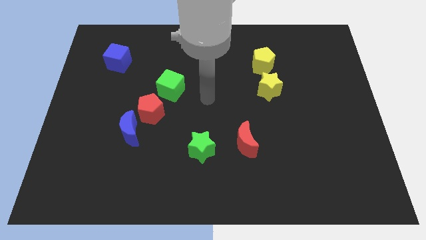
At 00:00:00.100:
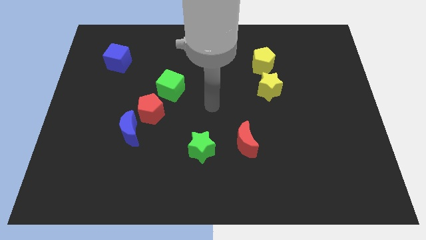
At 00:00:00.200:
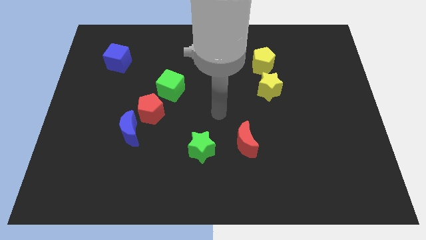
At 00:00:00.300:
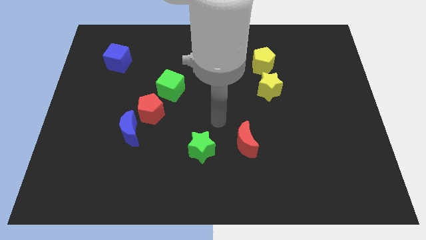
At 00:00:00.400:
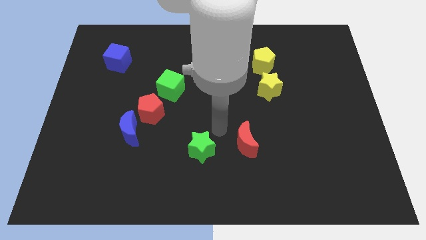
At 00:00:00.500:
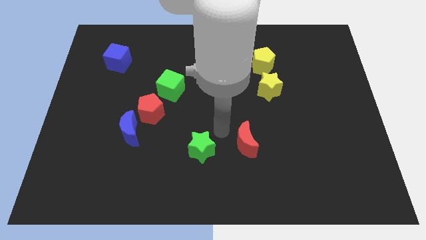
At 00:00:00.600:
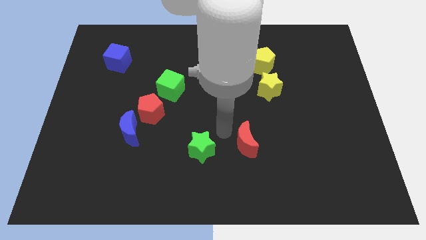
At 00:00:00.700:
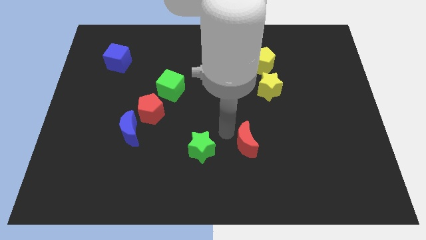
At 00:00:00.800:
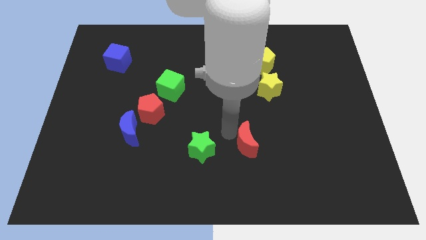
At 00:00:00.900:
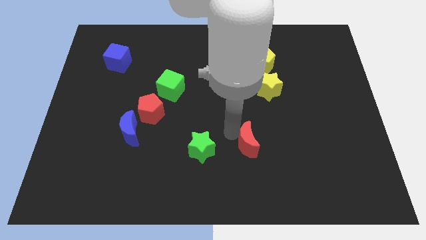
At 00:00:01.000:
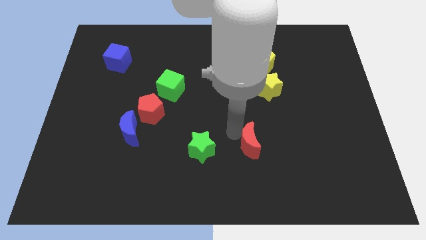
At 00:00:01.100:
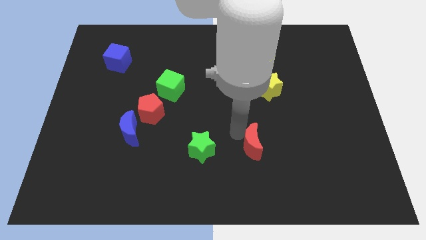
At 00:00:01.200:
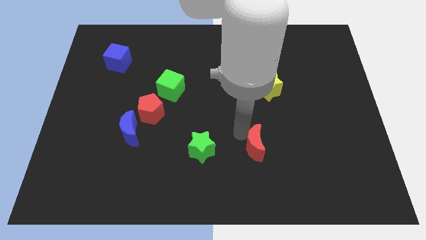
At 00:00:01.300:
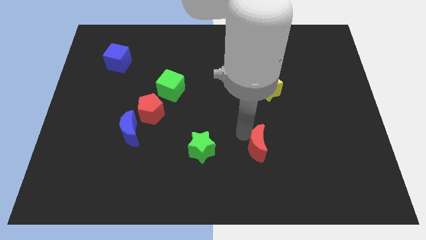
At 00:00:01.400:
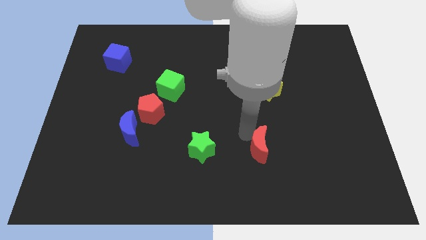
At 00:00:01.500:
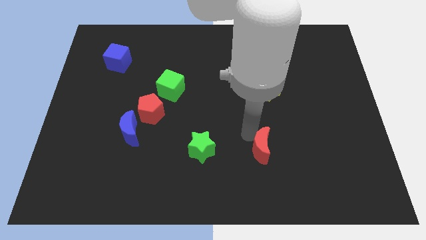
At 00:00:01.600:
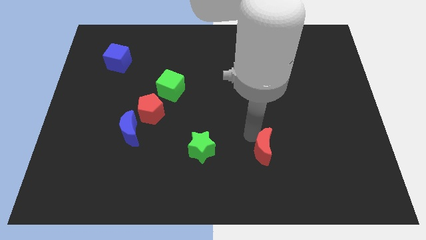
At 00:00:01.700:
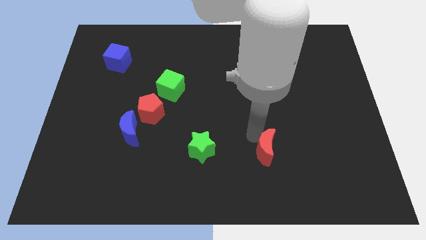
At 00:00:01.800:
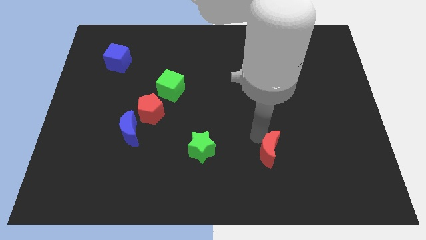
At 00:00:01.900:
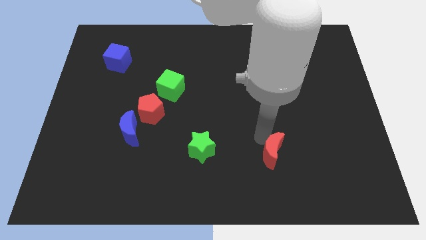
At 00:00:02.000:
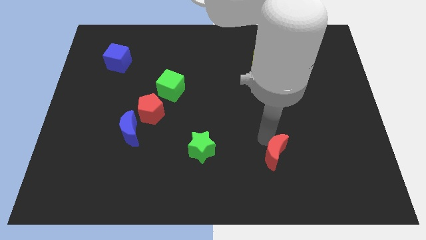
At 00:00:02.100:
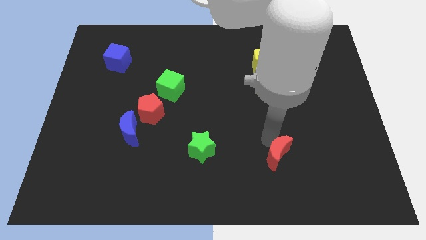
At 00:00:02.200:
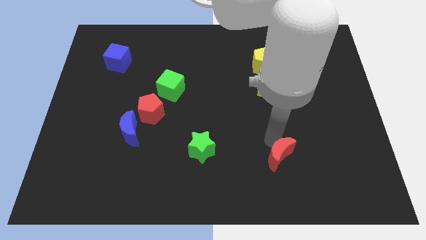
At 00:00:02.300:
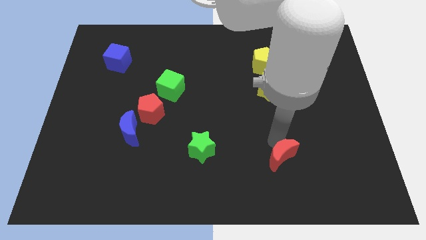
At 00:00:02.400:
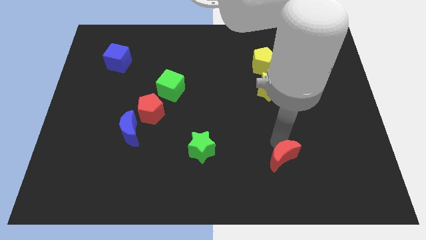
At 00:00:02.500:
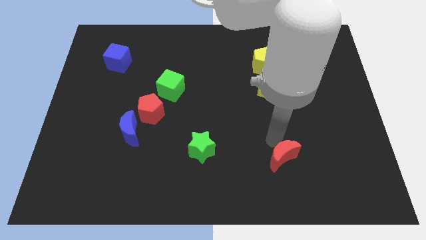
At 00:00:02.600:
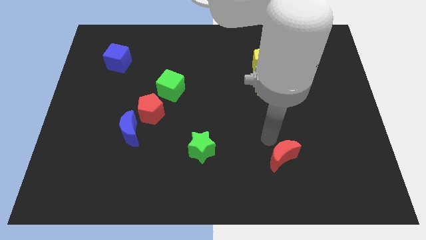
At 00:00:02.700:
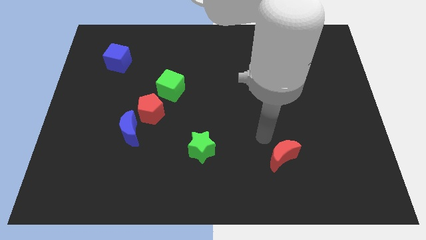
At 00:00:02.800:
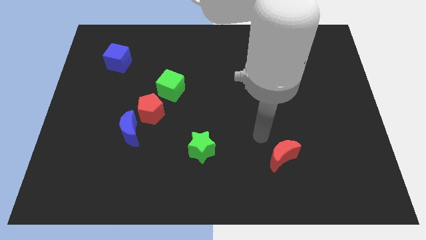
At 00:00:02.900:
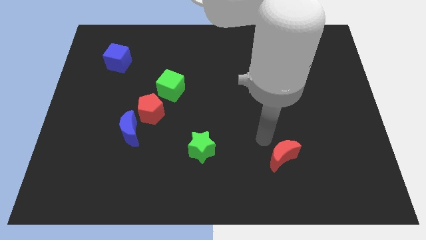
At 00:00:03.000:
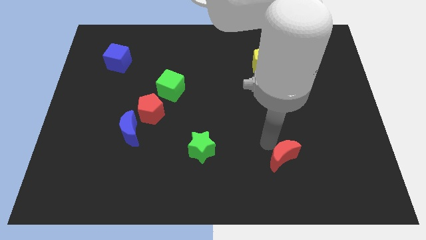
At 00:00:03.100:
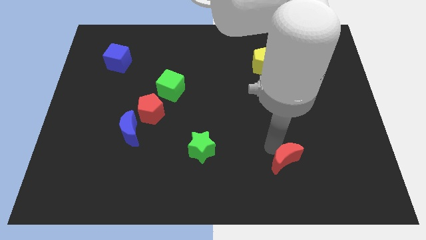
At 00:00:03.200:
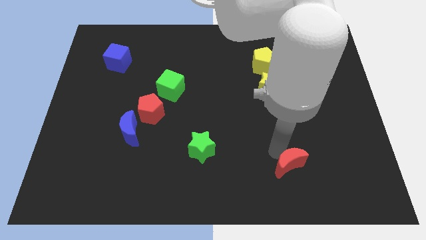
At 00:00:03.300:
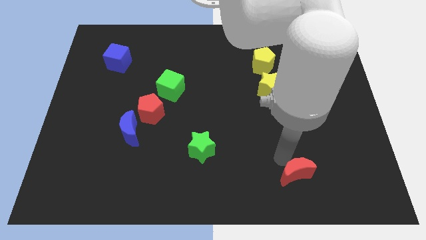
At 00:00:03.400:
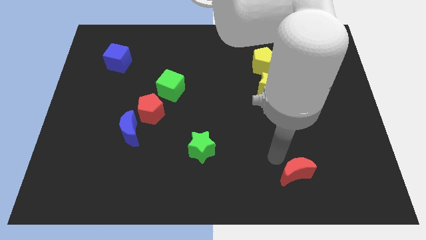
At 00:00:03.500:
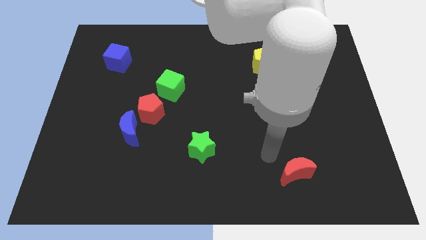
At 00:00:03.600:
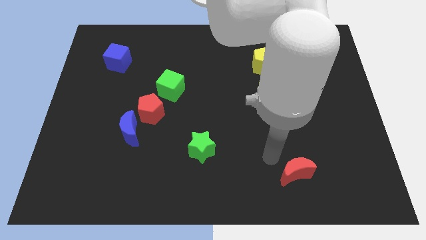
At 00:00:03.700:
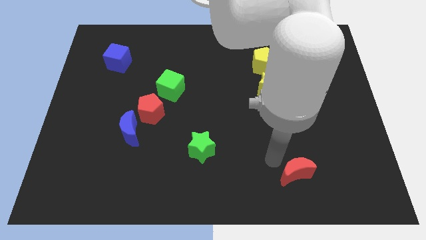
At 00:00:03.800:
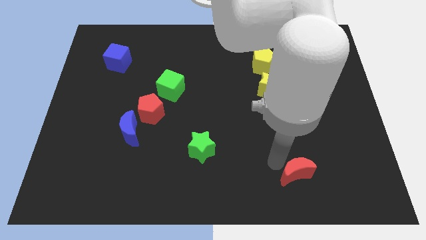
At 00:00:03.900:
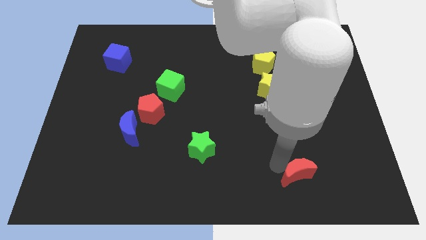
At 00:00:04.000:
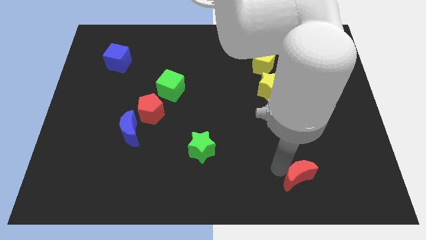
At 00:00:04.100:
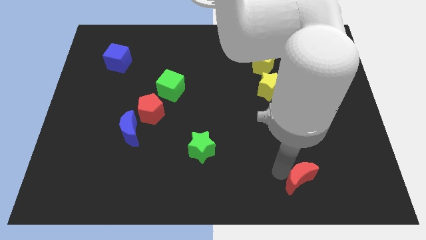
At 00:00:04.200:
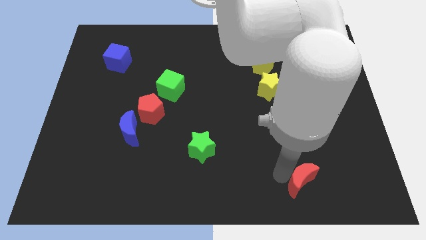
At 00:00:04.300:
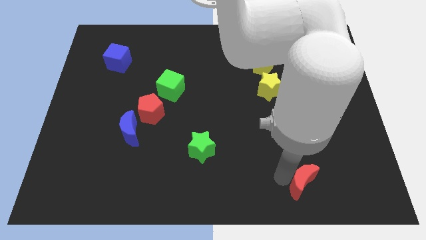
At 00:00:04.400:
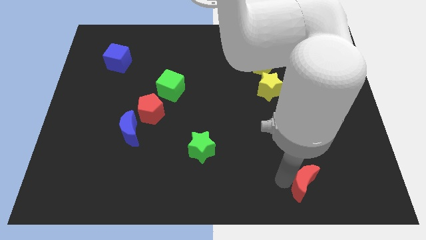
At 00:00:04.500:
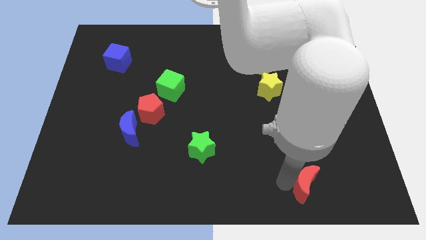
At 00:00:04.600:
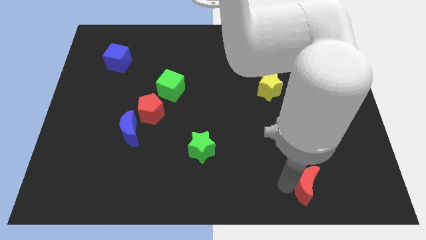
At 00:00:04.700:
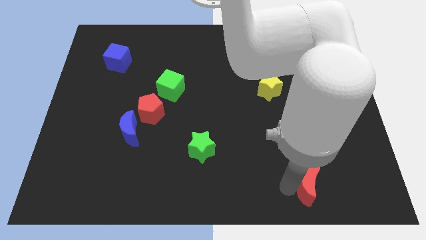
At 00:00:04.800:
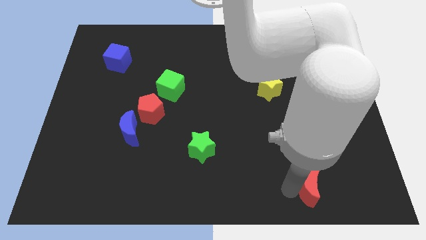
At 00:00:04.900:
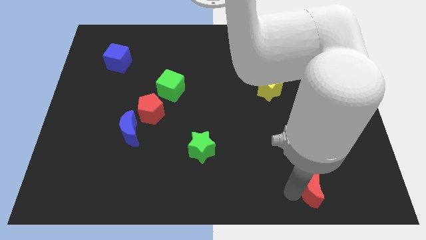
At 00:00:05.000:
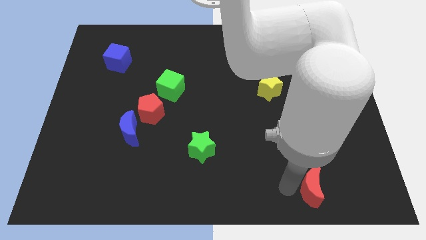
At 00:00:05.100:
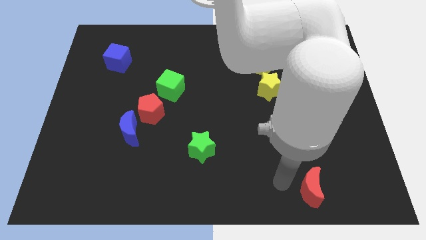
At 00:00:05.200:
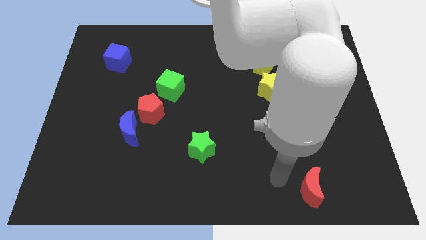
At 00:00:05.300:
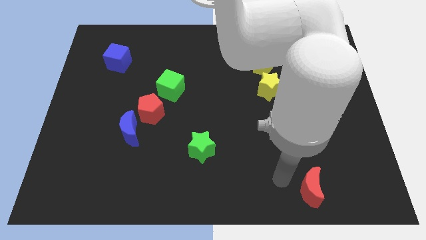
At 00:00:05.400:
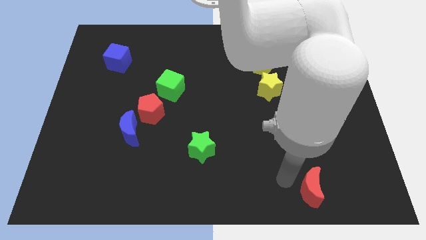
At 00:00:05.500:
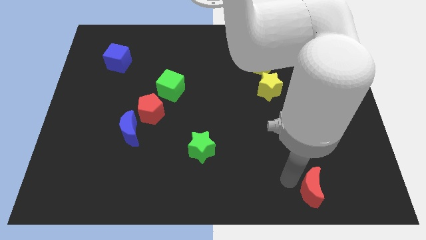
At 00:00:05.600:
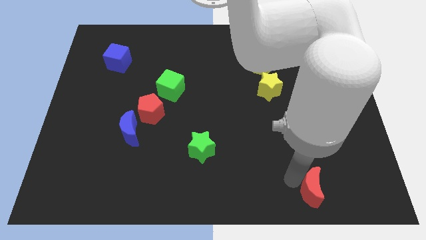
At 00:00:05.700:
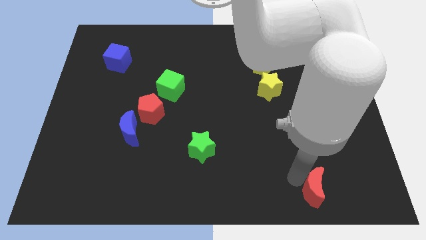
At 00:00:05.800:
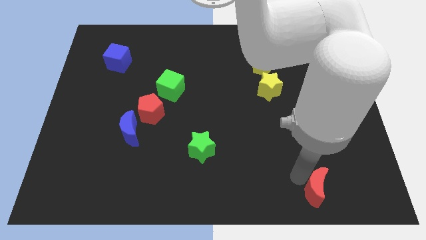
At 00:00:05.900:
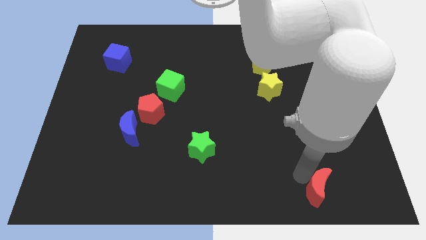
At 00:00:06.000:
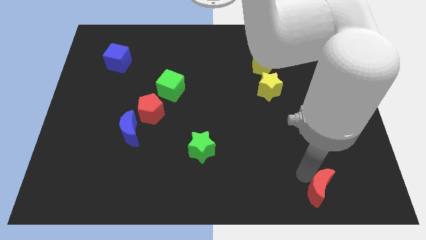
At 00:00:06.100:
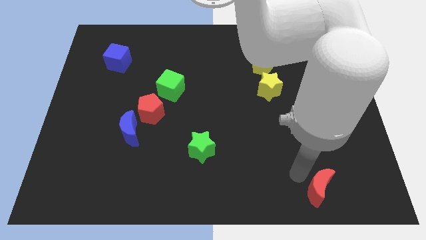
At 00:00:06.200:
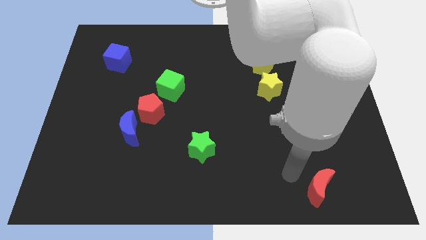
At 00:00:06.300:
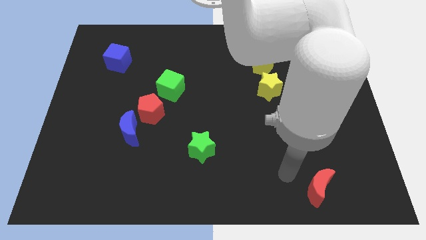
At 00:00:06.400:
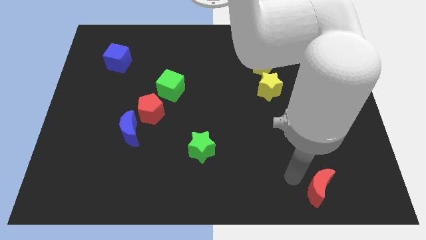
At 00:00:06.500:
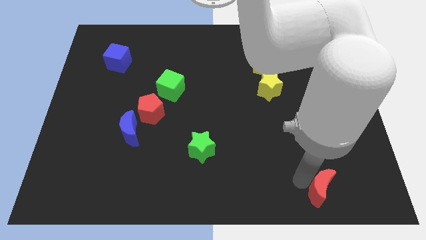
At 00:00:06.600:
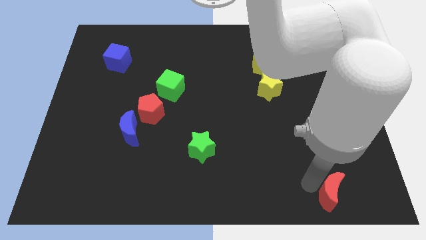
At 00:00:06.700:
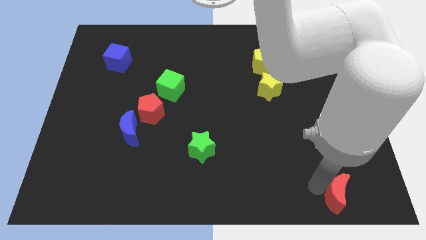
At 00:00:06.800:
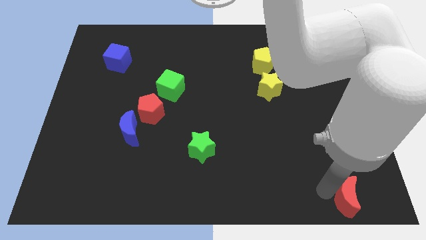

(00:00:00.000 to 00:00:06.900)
push the red moon to the lower right corner
